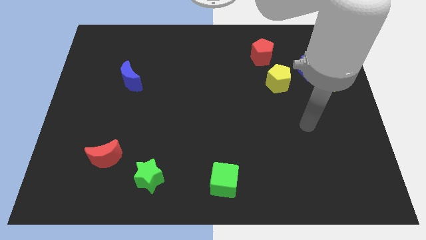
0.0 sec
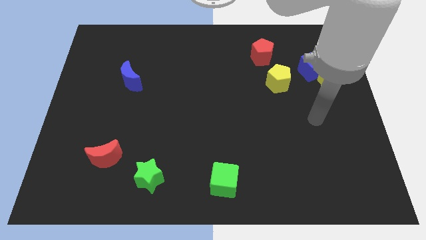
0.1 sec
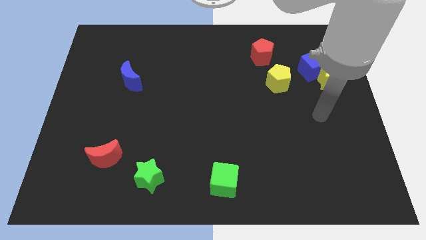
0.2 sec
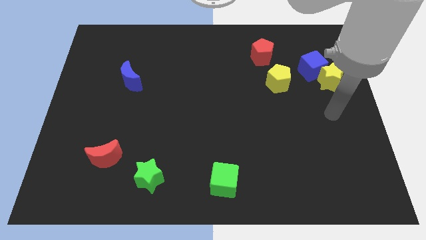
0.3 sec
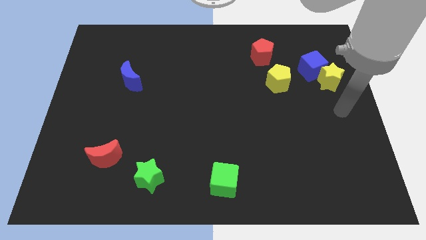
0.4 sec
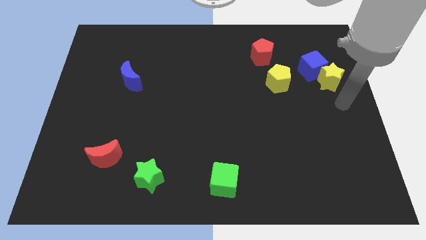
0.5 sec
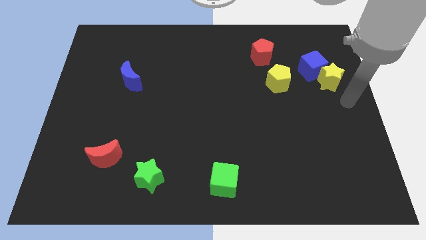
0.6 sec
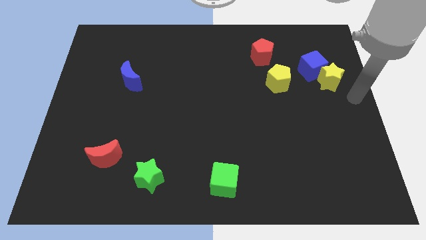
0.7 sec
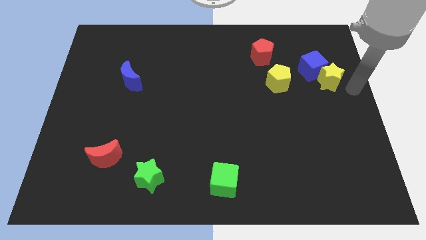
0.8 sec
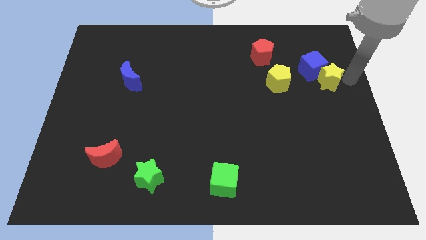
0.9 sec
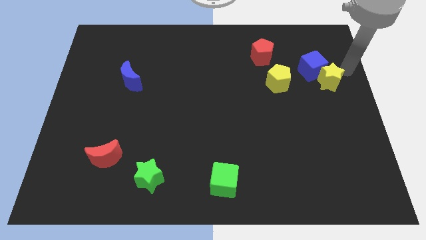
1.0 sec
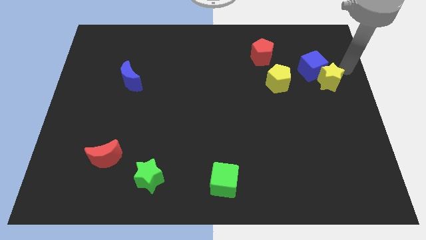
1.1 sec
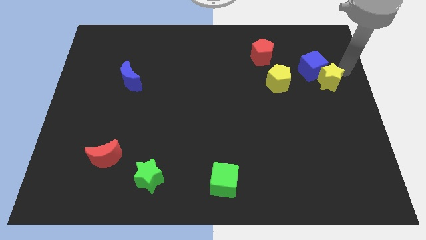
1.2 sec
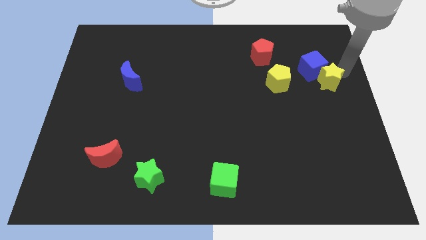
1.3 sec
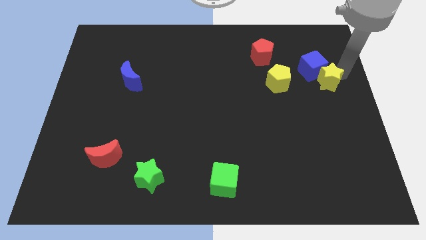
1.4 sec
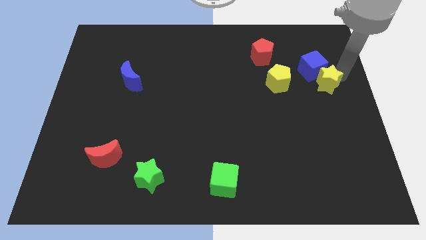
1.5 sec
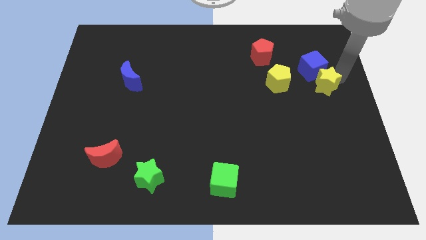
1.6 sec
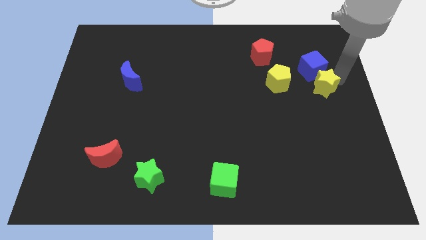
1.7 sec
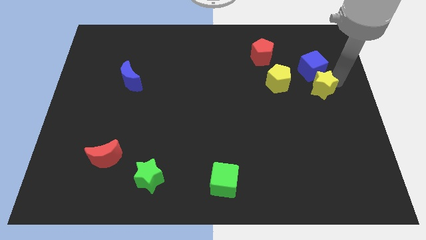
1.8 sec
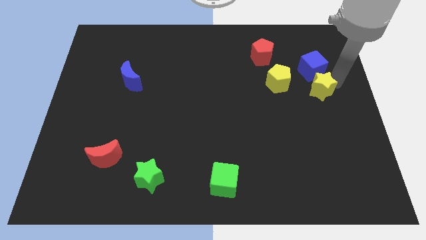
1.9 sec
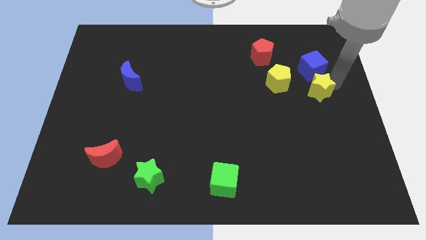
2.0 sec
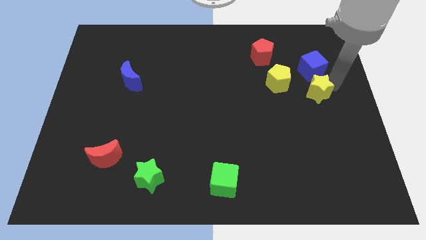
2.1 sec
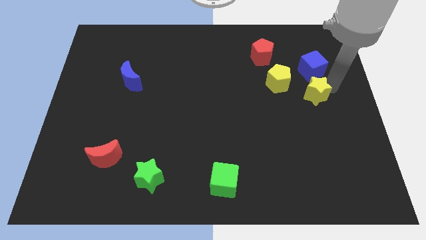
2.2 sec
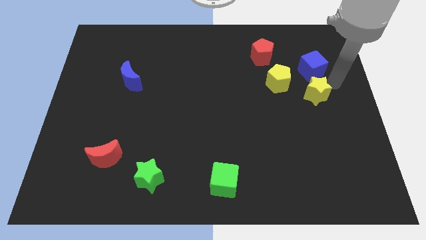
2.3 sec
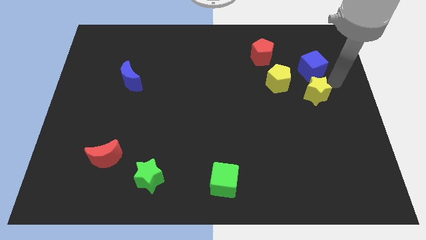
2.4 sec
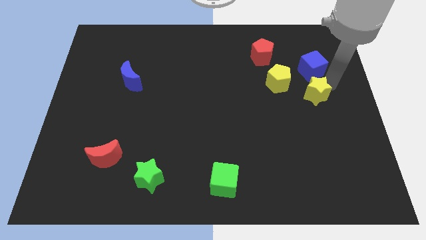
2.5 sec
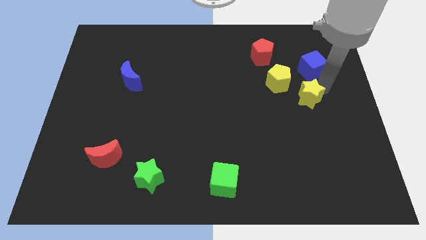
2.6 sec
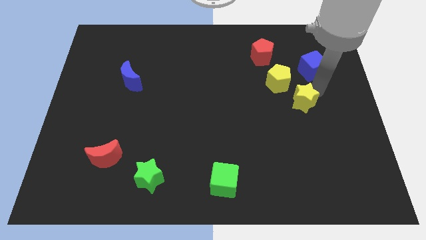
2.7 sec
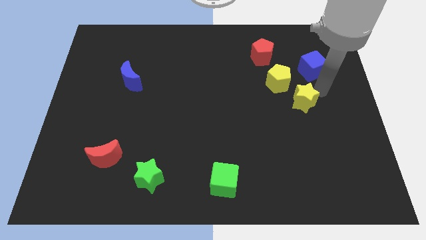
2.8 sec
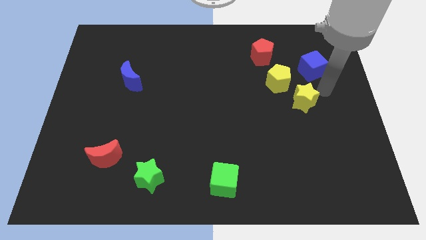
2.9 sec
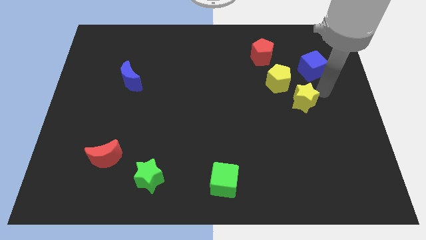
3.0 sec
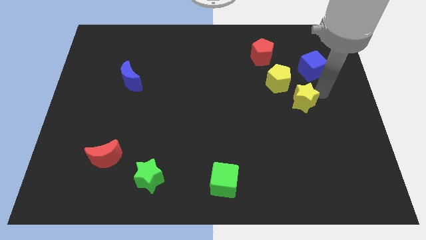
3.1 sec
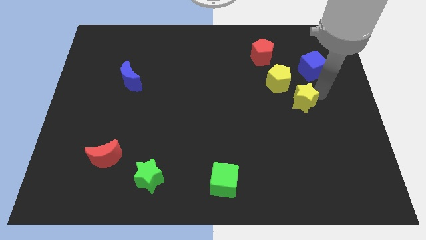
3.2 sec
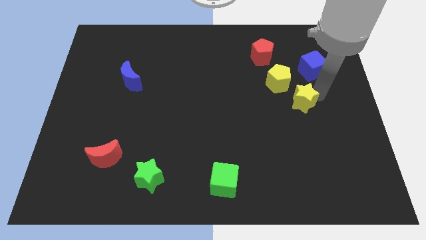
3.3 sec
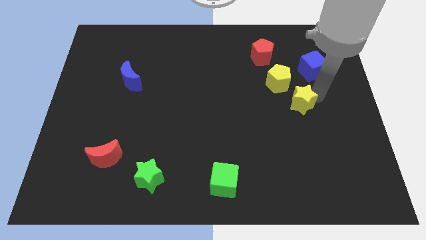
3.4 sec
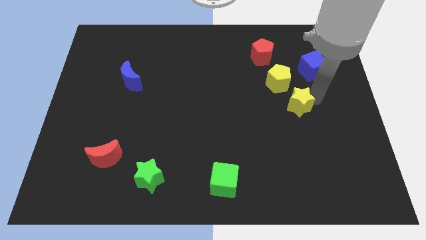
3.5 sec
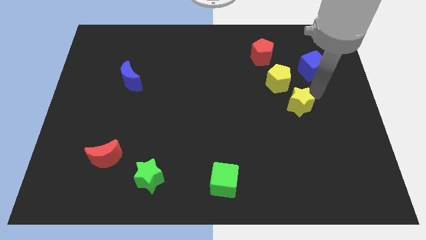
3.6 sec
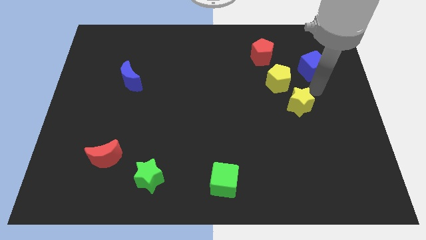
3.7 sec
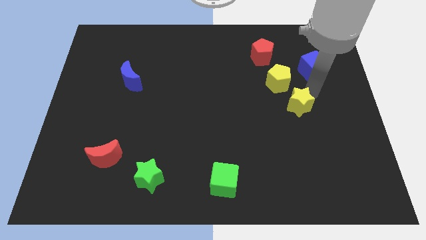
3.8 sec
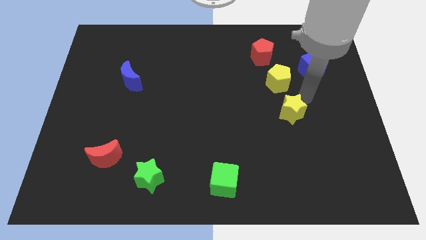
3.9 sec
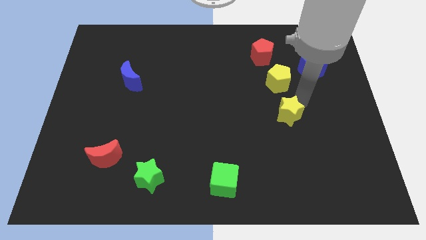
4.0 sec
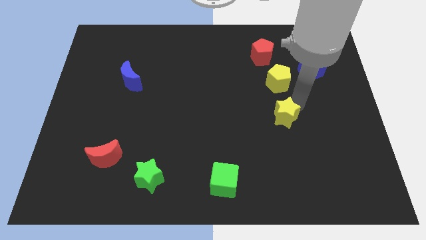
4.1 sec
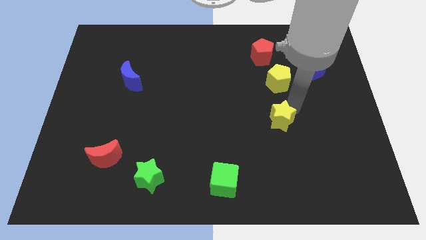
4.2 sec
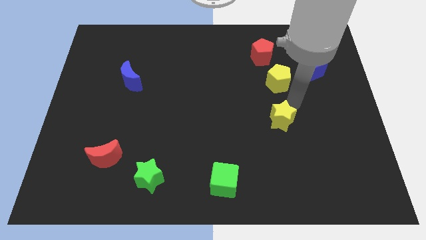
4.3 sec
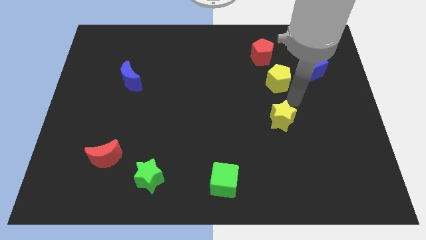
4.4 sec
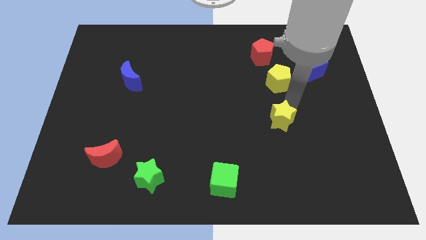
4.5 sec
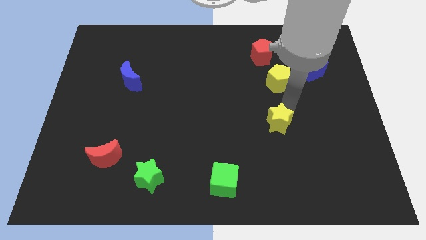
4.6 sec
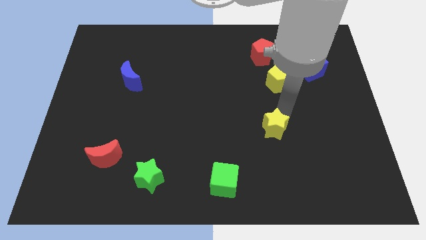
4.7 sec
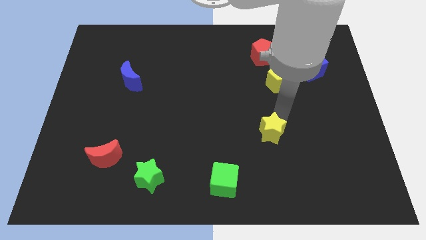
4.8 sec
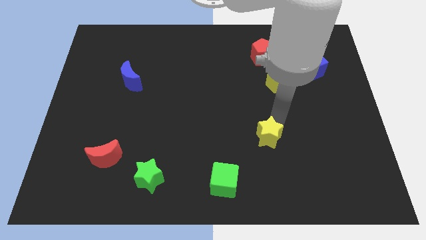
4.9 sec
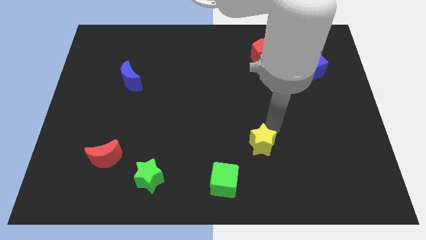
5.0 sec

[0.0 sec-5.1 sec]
put the yellow star diagonally up and to the right of the green cube

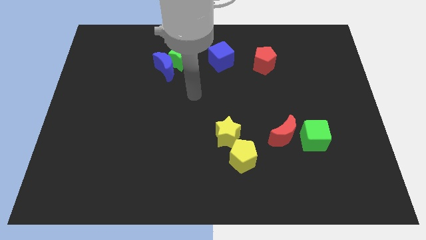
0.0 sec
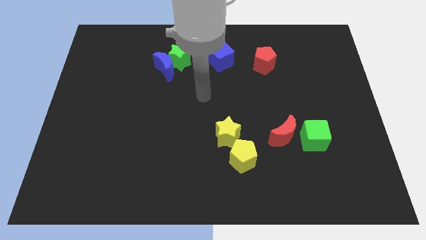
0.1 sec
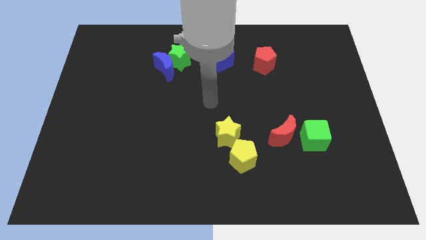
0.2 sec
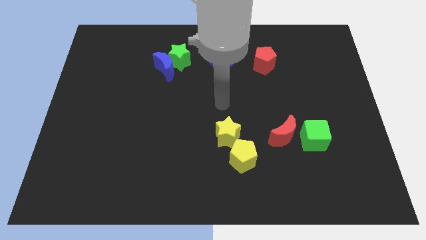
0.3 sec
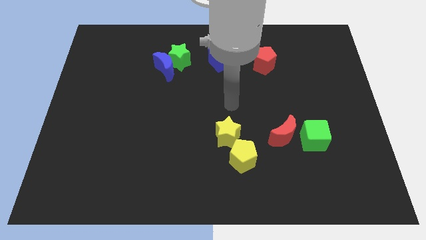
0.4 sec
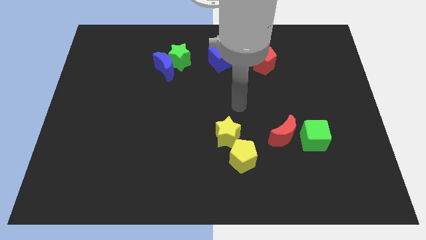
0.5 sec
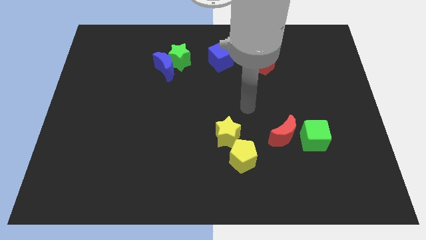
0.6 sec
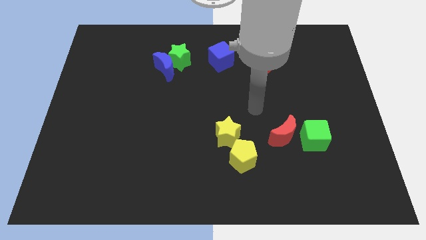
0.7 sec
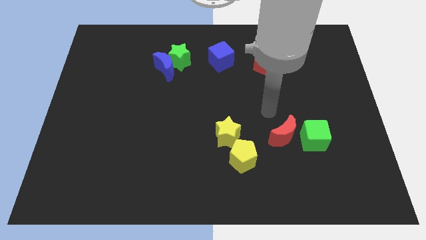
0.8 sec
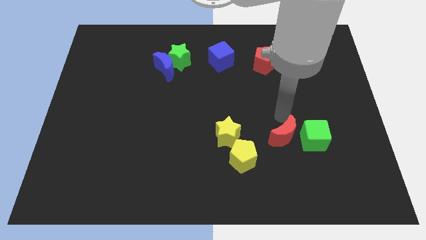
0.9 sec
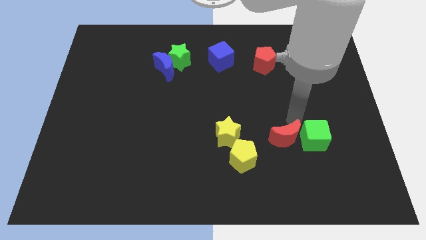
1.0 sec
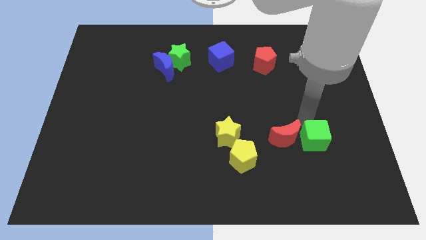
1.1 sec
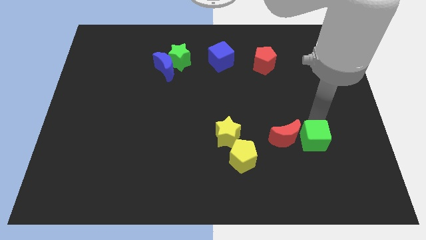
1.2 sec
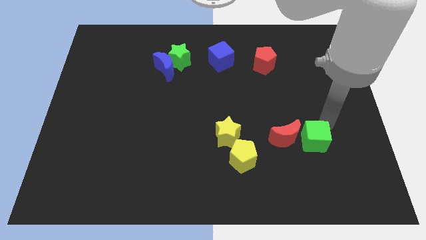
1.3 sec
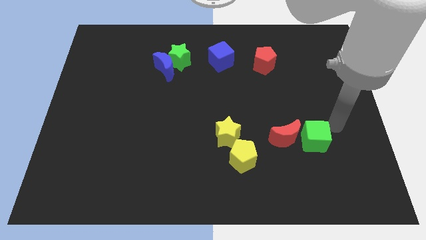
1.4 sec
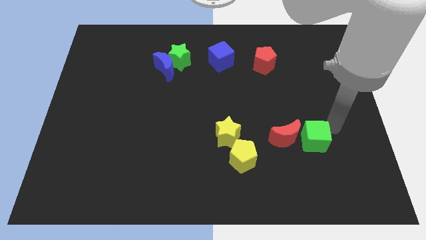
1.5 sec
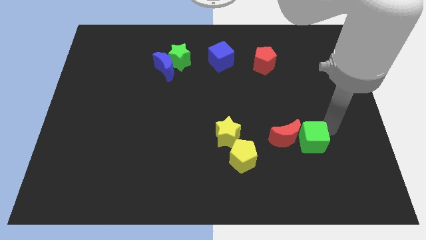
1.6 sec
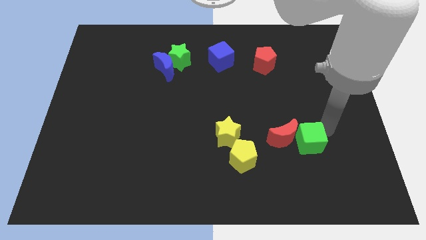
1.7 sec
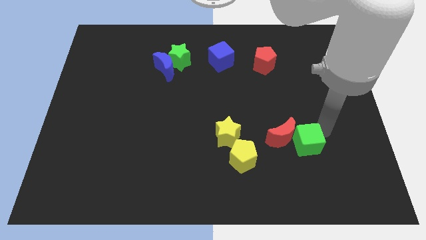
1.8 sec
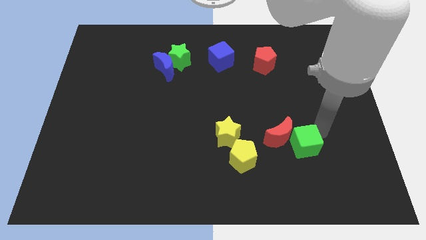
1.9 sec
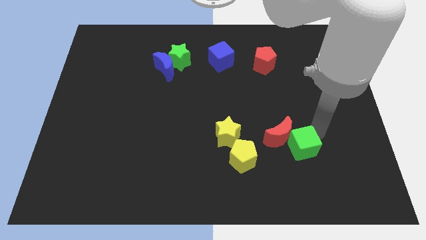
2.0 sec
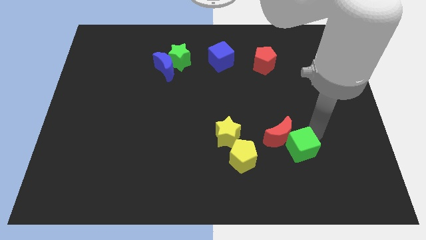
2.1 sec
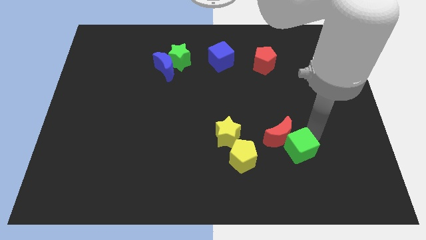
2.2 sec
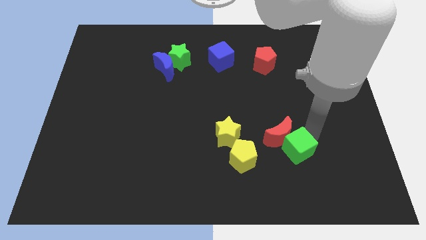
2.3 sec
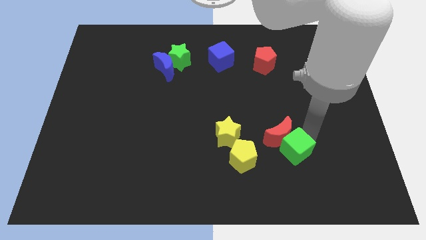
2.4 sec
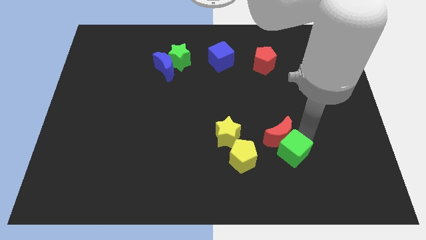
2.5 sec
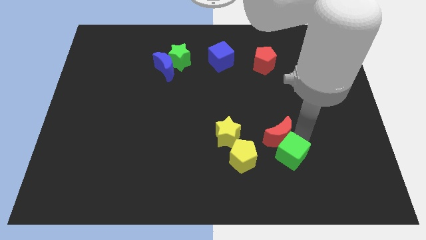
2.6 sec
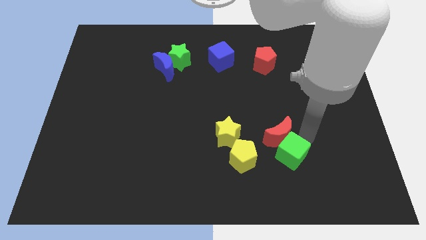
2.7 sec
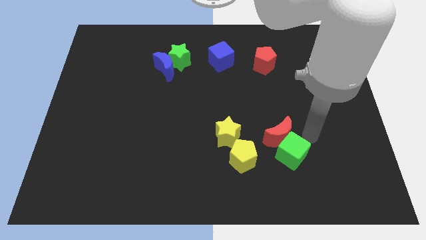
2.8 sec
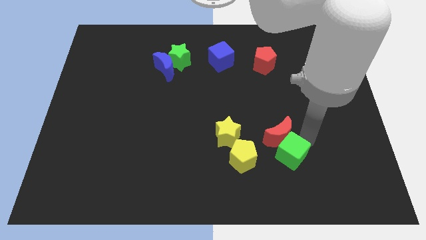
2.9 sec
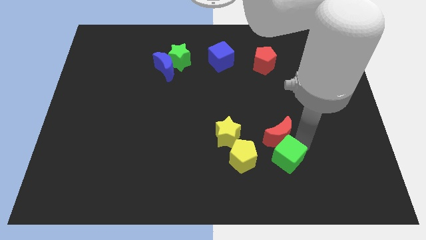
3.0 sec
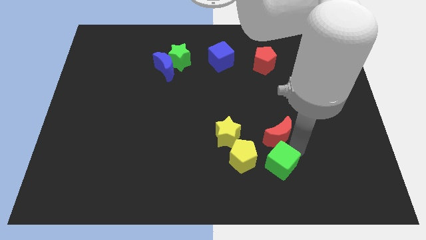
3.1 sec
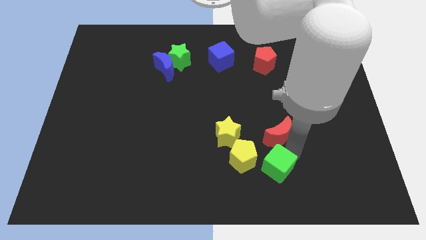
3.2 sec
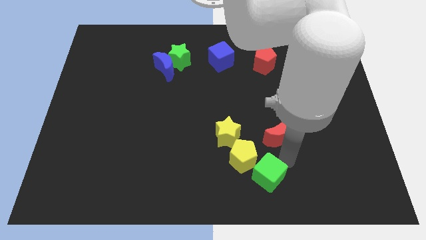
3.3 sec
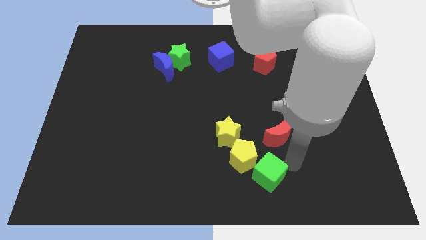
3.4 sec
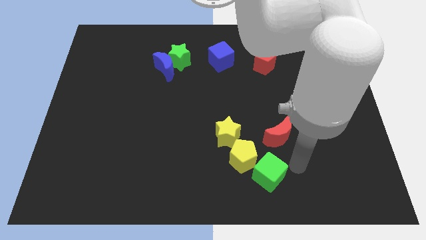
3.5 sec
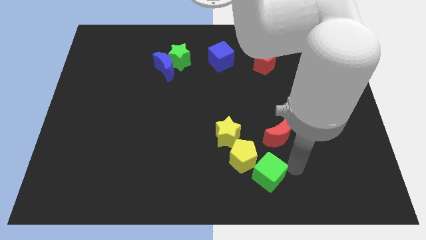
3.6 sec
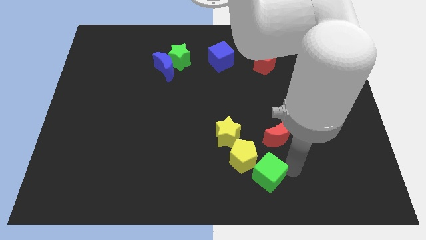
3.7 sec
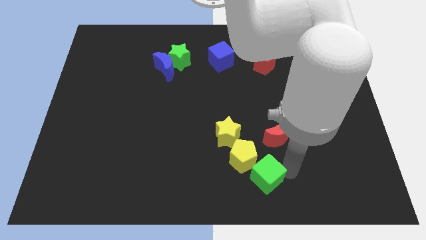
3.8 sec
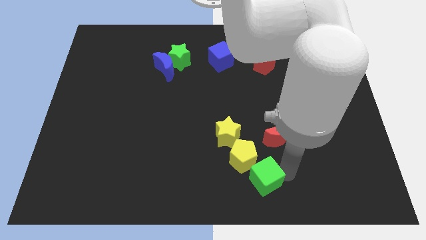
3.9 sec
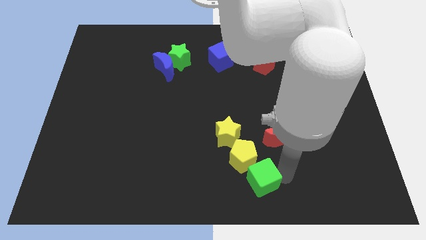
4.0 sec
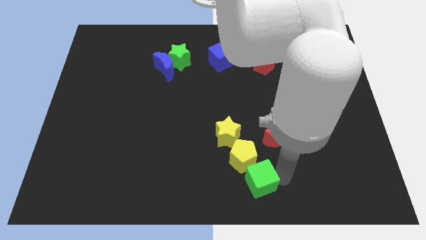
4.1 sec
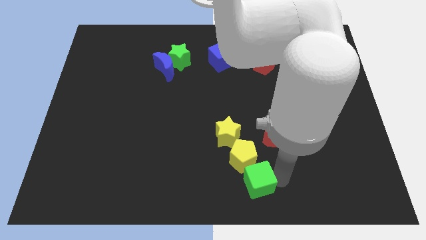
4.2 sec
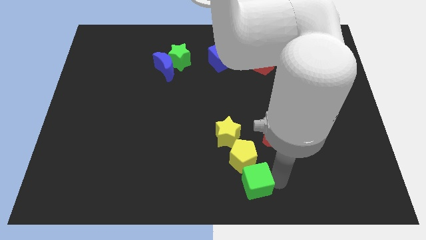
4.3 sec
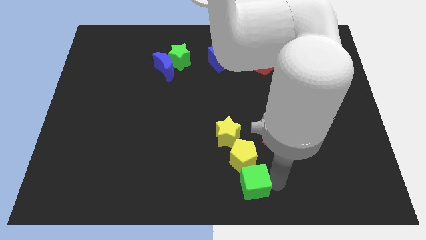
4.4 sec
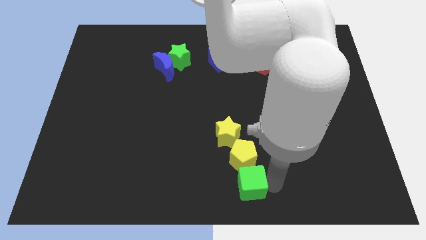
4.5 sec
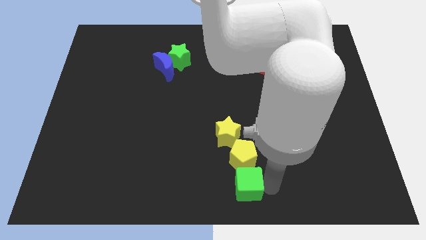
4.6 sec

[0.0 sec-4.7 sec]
slide the green cube diagonally down and to the left of the yellow pentagon
